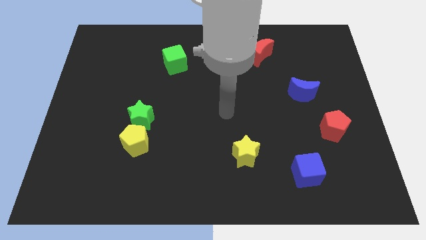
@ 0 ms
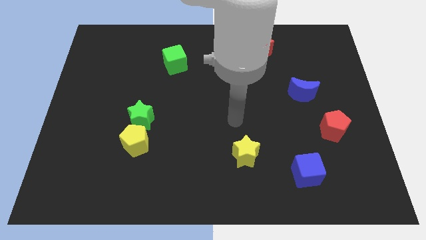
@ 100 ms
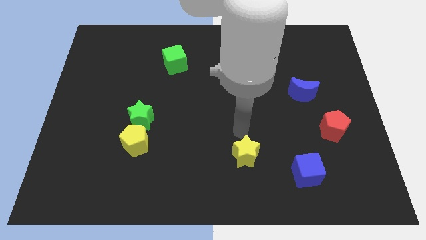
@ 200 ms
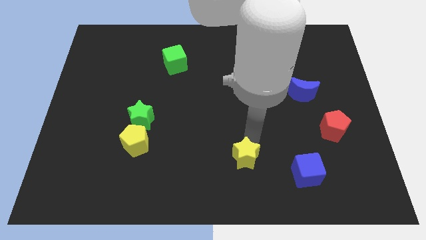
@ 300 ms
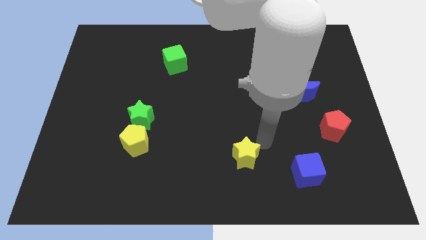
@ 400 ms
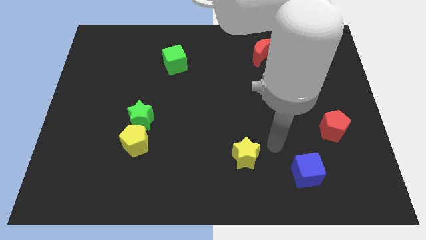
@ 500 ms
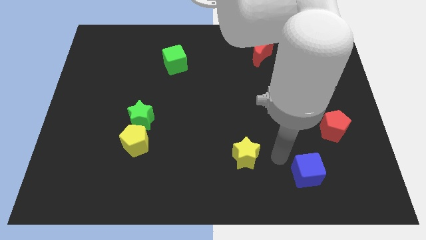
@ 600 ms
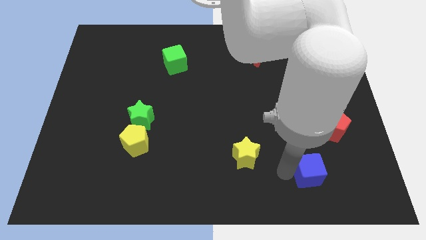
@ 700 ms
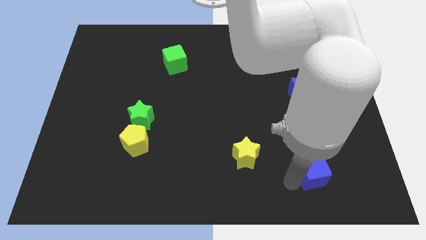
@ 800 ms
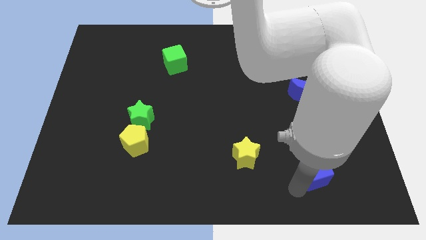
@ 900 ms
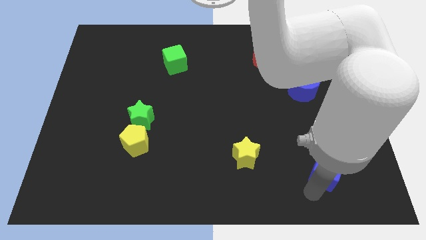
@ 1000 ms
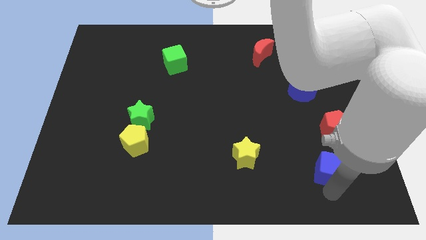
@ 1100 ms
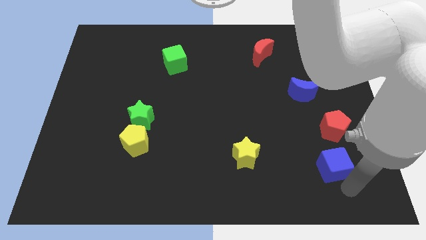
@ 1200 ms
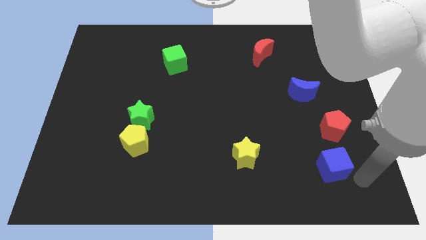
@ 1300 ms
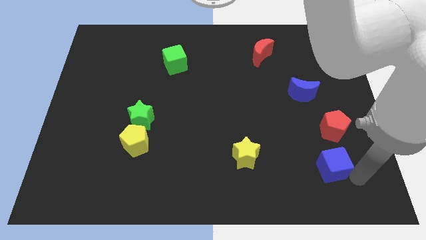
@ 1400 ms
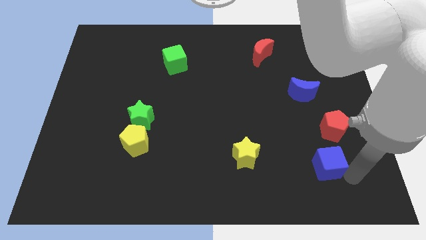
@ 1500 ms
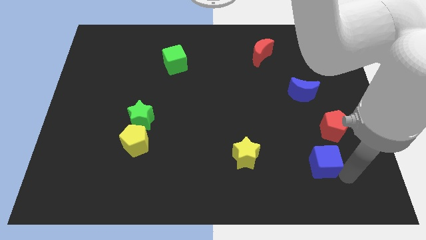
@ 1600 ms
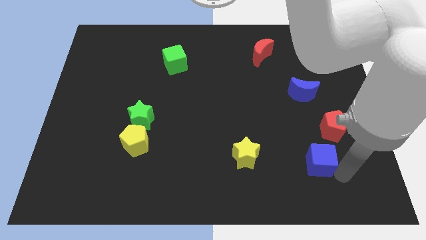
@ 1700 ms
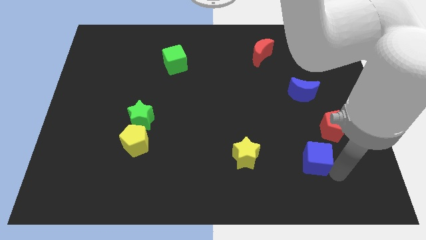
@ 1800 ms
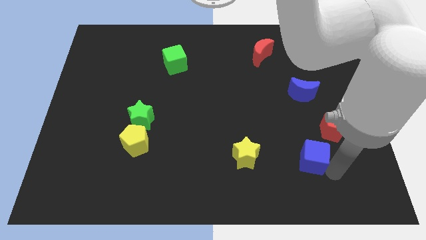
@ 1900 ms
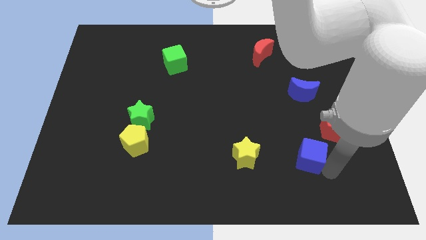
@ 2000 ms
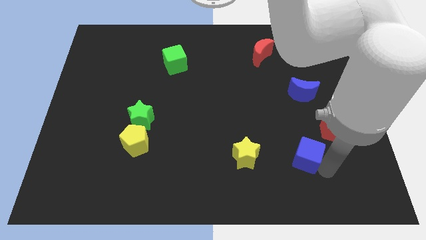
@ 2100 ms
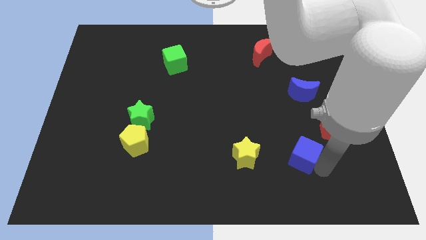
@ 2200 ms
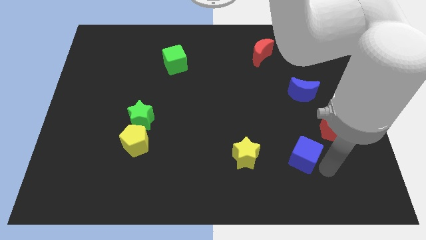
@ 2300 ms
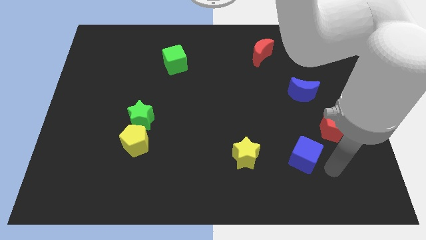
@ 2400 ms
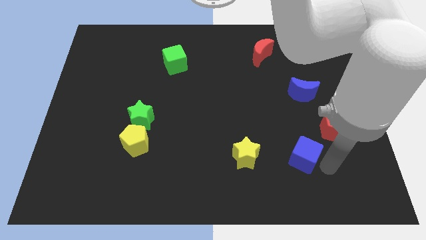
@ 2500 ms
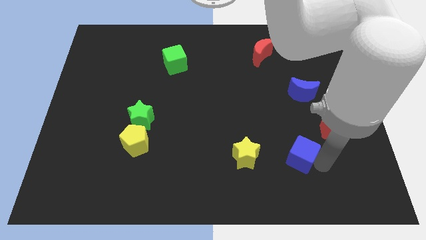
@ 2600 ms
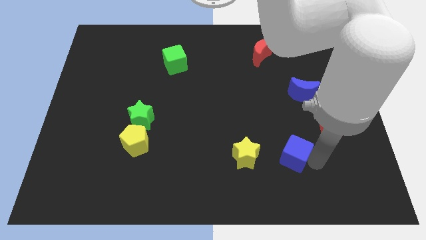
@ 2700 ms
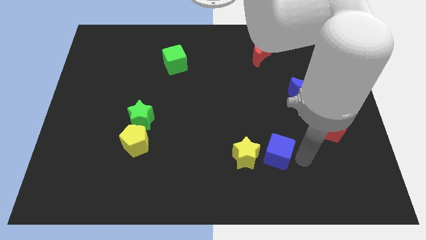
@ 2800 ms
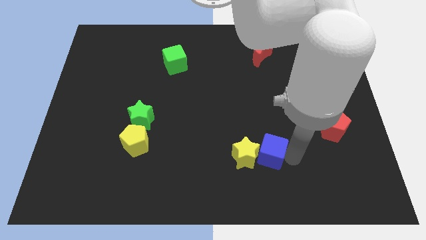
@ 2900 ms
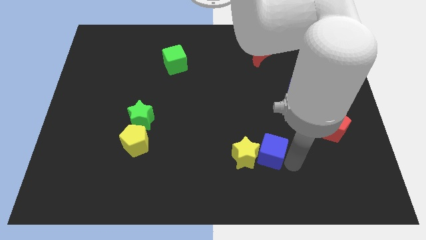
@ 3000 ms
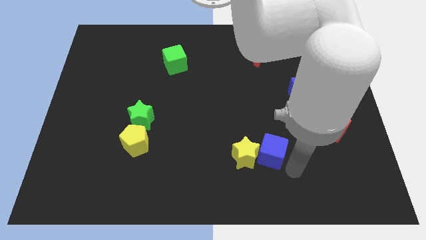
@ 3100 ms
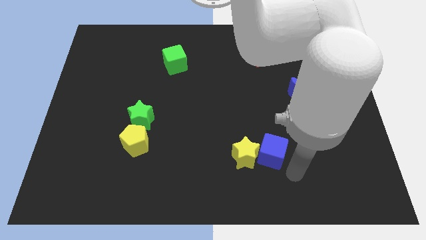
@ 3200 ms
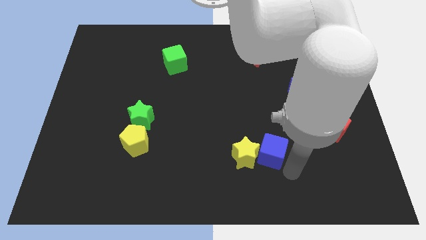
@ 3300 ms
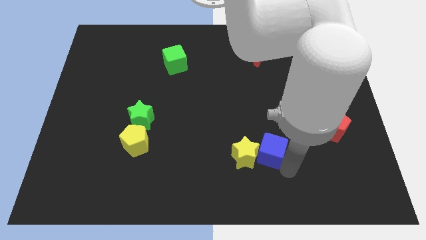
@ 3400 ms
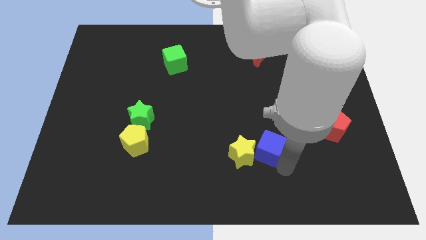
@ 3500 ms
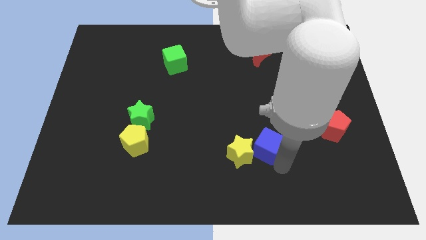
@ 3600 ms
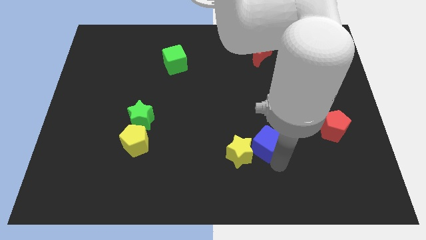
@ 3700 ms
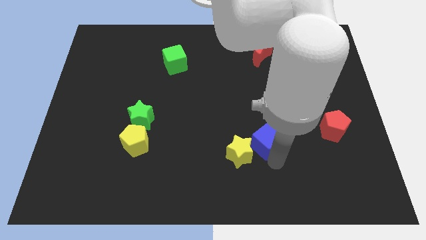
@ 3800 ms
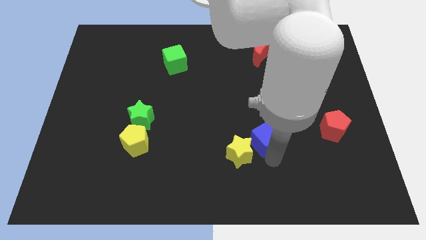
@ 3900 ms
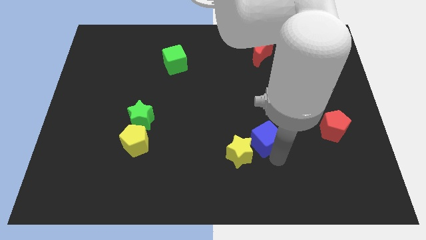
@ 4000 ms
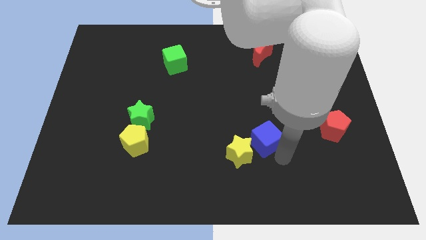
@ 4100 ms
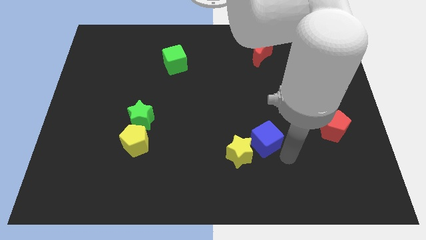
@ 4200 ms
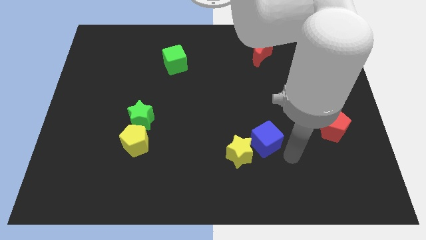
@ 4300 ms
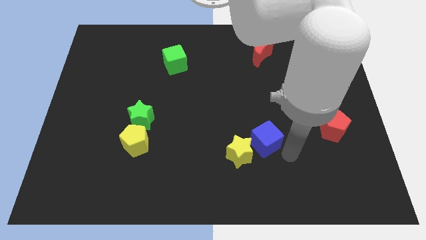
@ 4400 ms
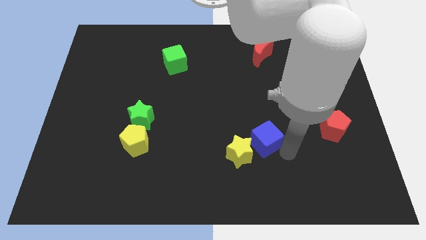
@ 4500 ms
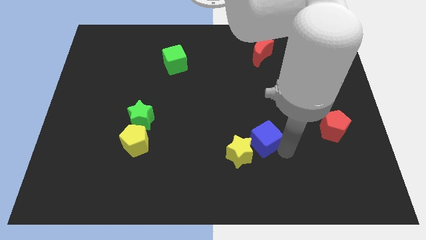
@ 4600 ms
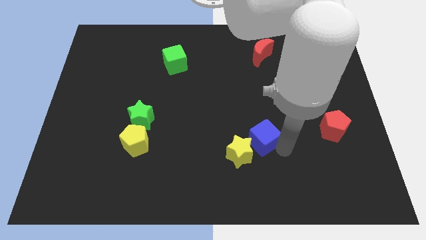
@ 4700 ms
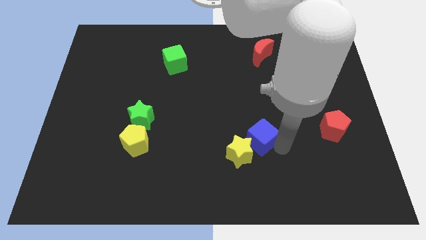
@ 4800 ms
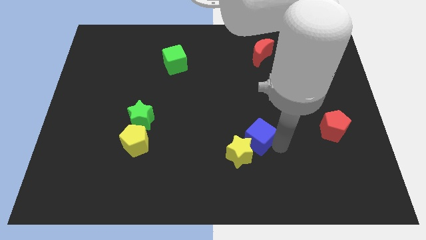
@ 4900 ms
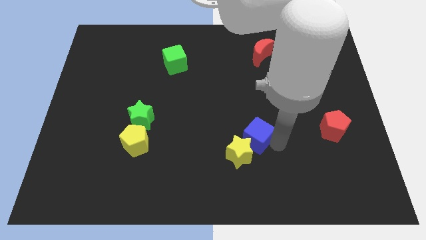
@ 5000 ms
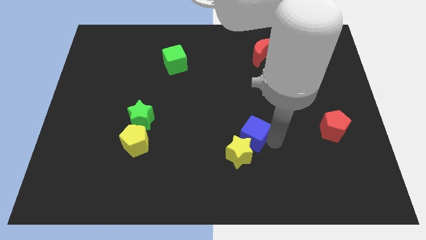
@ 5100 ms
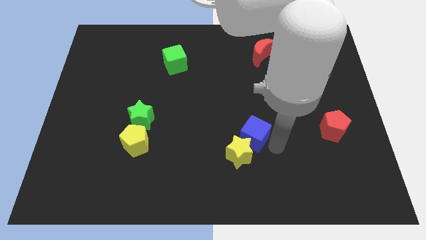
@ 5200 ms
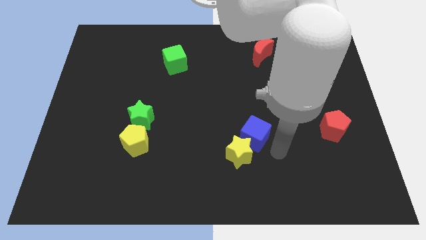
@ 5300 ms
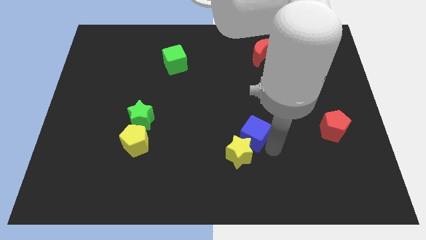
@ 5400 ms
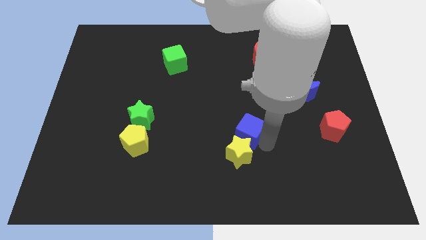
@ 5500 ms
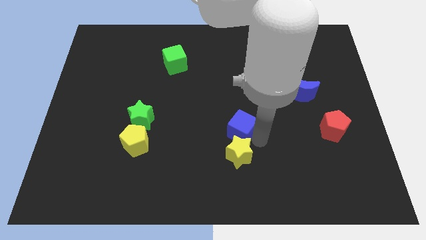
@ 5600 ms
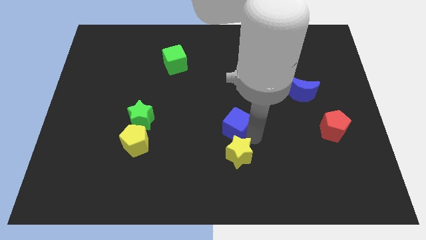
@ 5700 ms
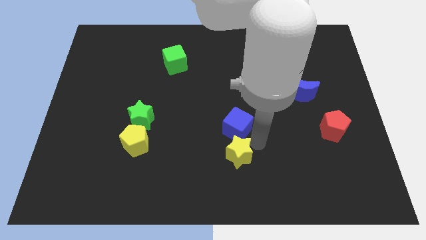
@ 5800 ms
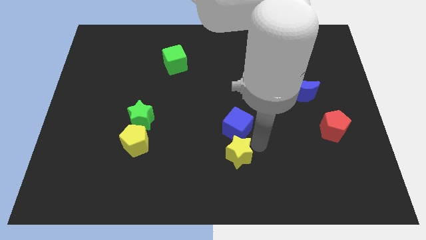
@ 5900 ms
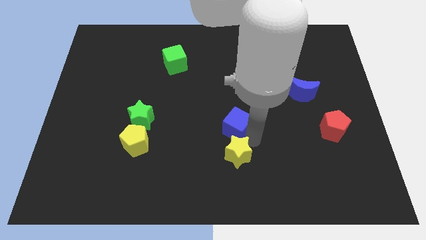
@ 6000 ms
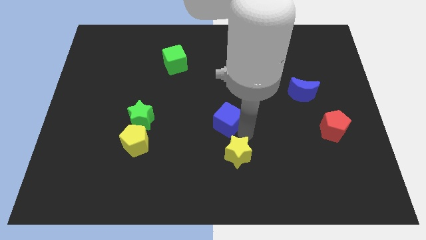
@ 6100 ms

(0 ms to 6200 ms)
push the blue cube upwards and to the left

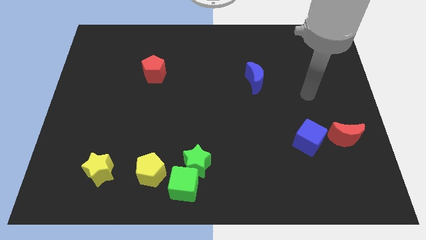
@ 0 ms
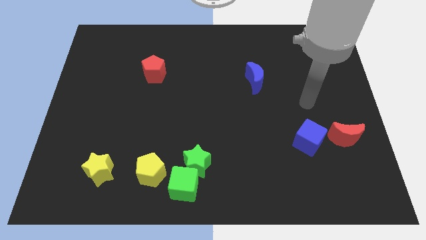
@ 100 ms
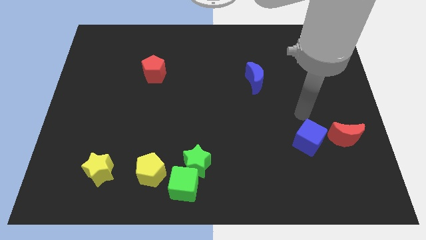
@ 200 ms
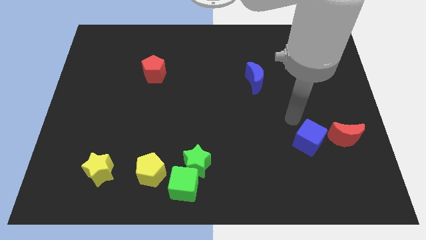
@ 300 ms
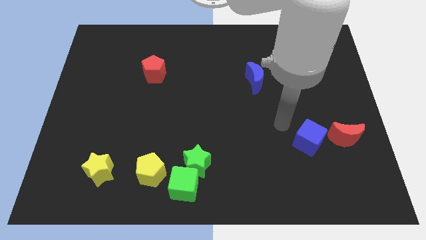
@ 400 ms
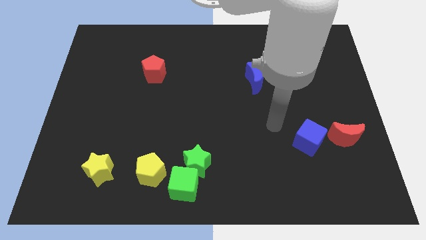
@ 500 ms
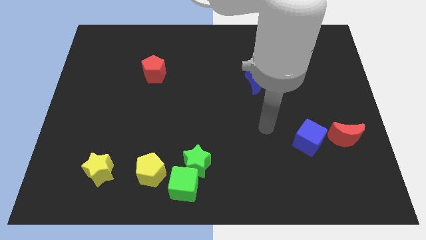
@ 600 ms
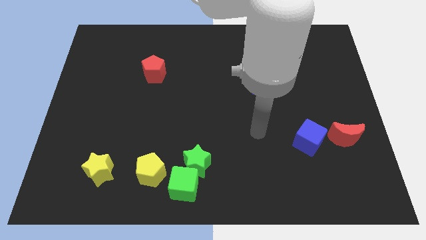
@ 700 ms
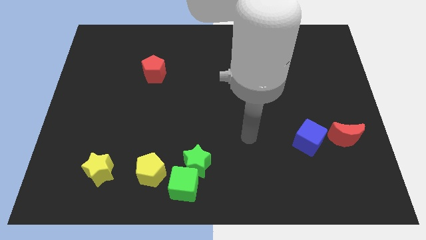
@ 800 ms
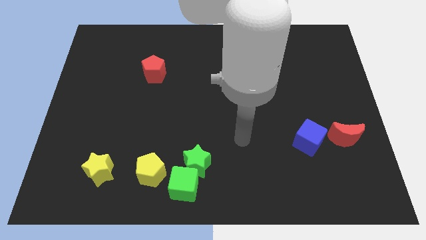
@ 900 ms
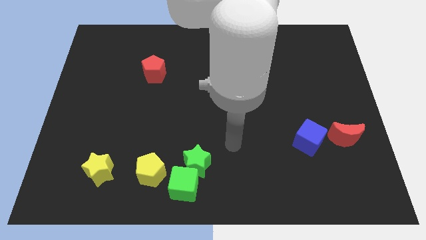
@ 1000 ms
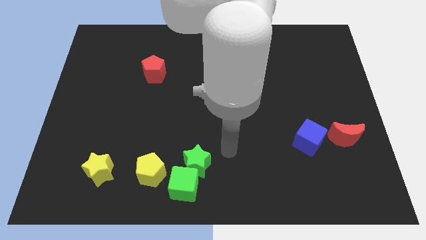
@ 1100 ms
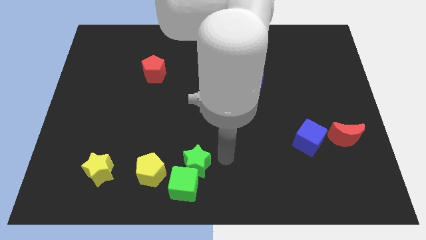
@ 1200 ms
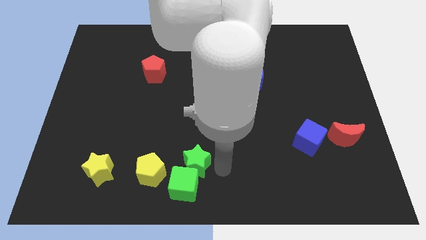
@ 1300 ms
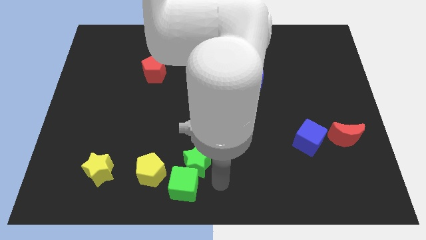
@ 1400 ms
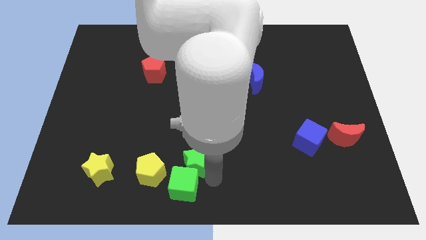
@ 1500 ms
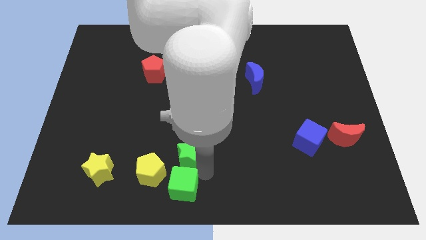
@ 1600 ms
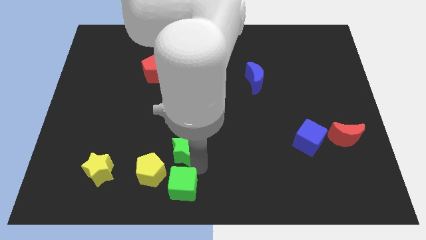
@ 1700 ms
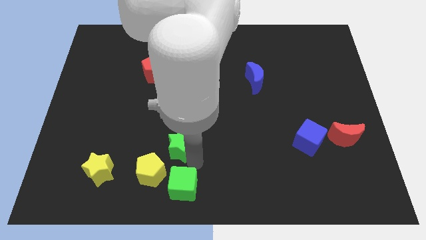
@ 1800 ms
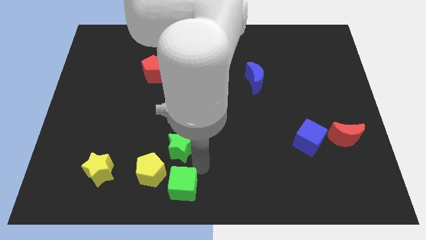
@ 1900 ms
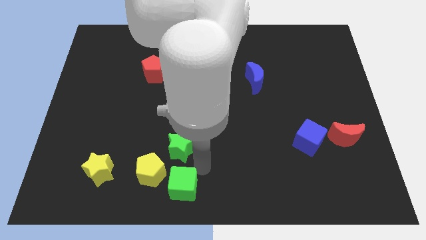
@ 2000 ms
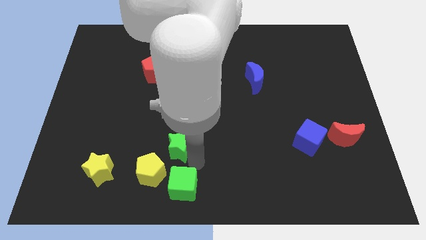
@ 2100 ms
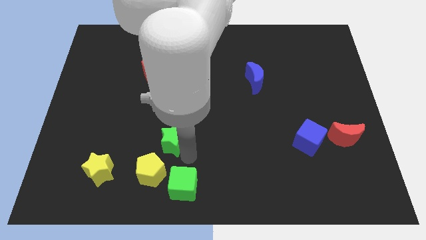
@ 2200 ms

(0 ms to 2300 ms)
push the green star diagonally up and to the left a little
